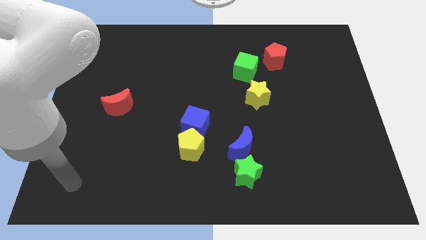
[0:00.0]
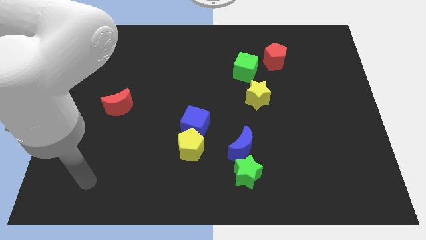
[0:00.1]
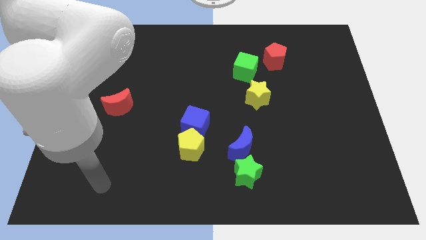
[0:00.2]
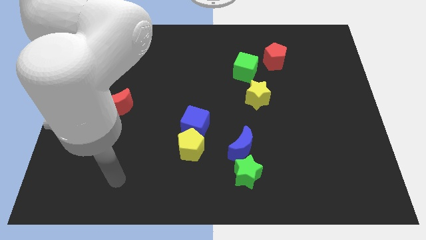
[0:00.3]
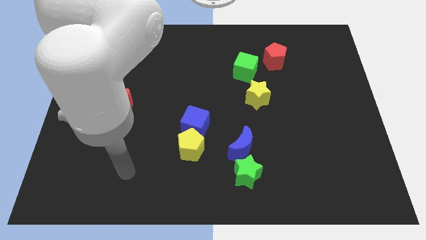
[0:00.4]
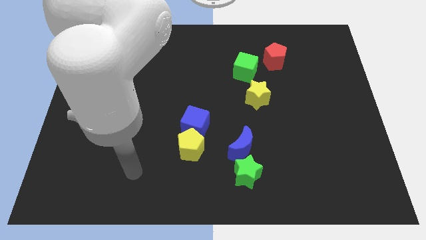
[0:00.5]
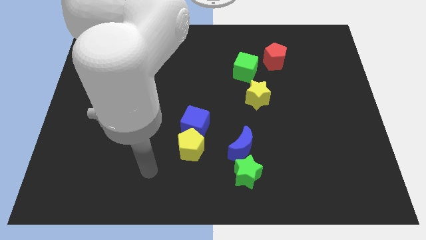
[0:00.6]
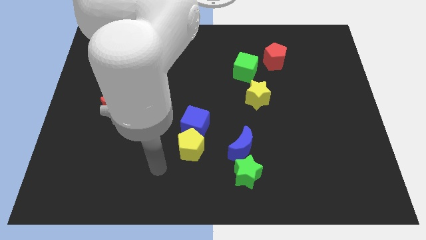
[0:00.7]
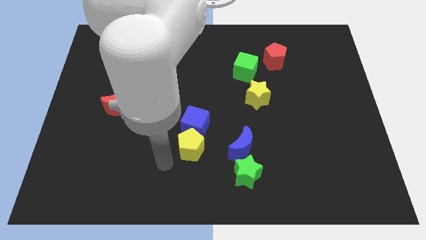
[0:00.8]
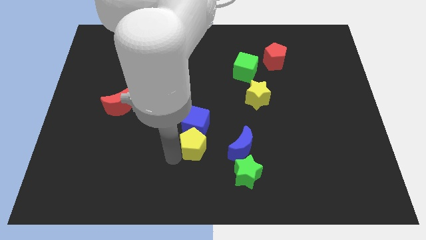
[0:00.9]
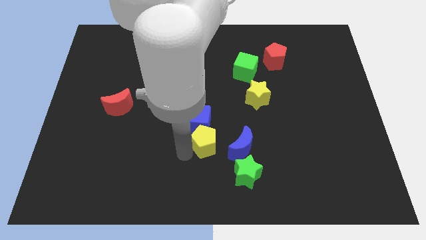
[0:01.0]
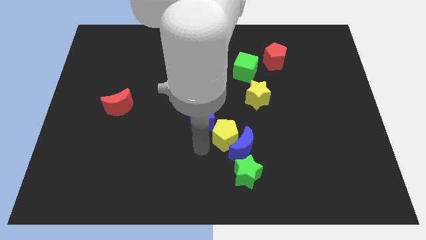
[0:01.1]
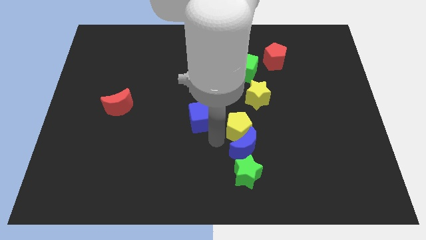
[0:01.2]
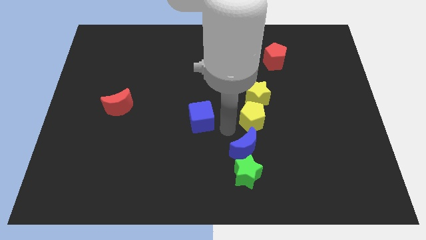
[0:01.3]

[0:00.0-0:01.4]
move the blue cube away from the yellow pentagon

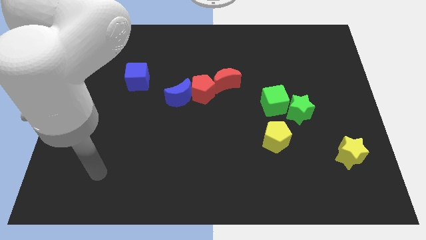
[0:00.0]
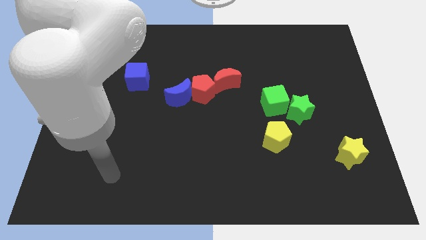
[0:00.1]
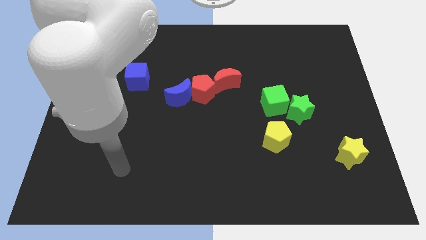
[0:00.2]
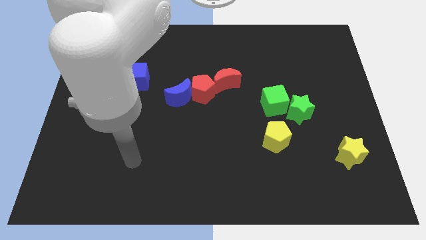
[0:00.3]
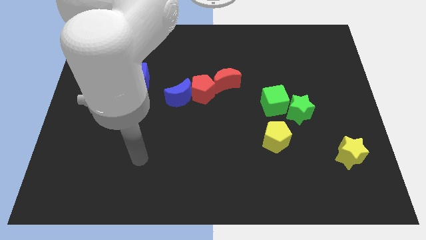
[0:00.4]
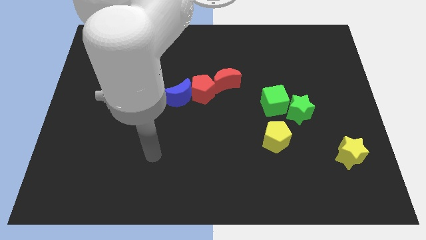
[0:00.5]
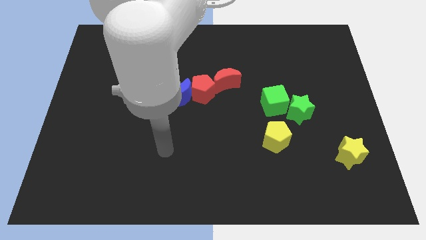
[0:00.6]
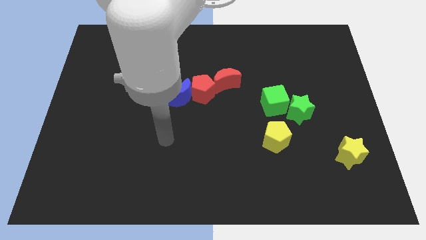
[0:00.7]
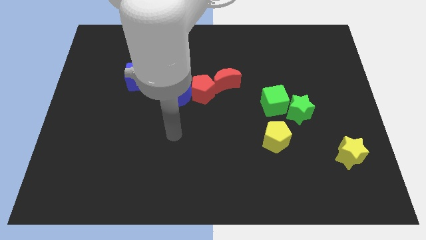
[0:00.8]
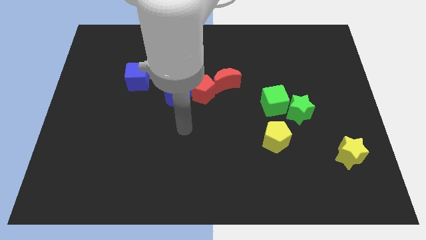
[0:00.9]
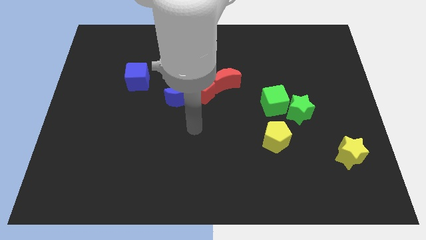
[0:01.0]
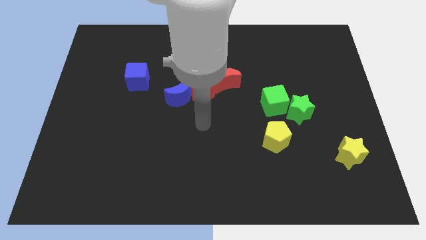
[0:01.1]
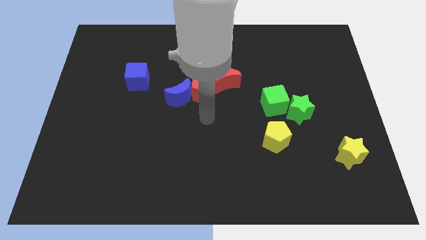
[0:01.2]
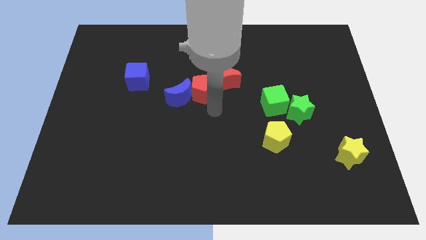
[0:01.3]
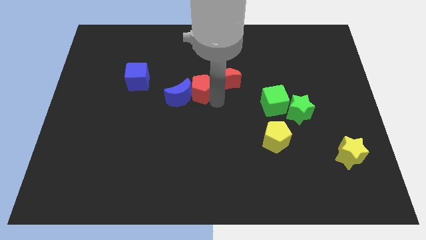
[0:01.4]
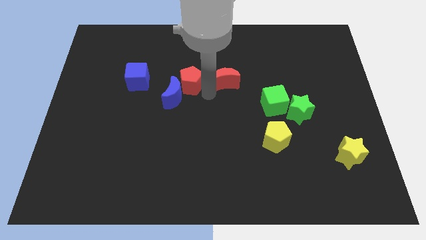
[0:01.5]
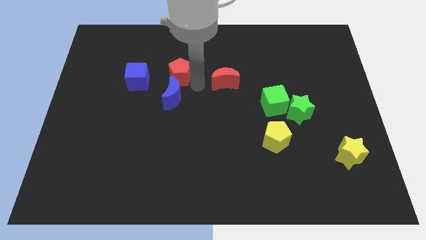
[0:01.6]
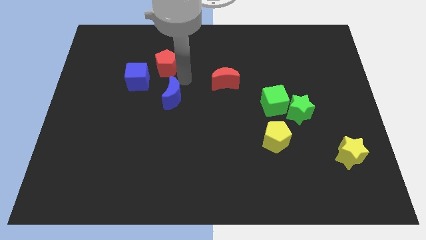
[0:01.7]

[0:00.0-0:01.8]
move the blue moon away from the red pentagon

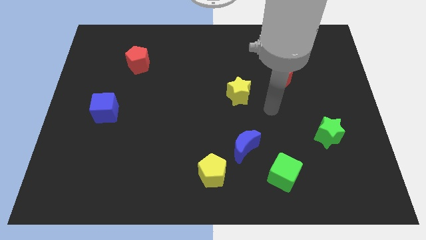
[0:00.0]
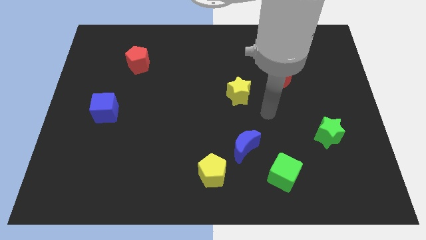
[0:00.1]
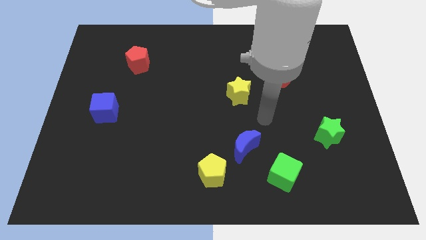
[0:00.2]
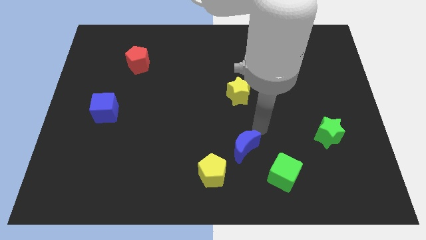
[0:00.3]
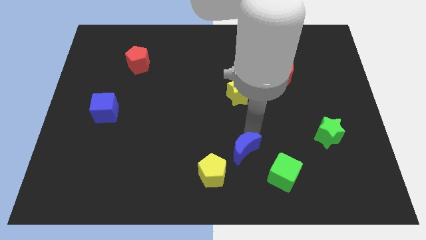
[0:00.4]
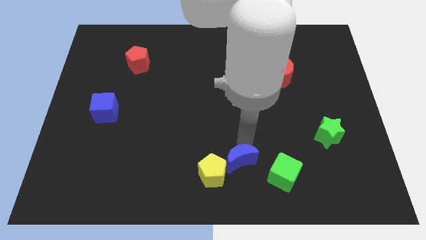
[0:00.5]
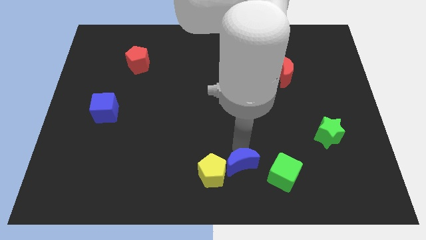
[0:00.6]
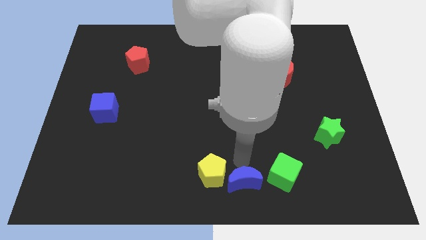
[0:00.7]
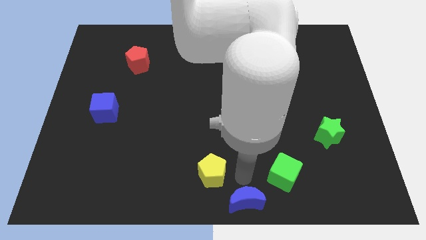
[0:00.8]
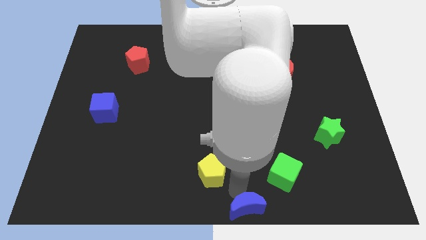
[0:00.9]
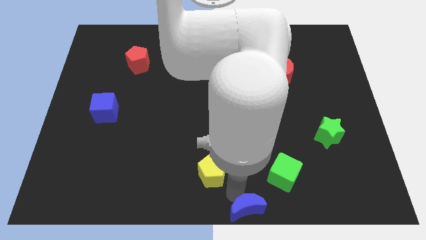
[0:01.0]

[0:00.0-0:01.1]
separate the yellow pentagon from the blue moon

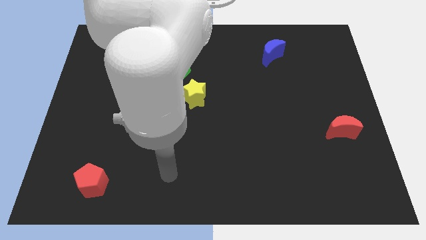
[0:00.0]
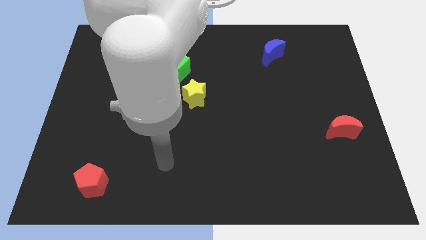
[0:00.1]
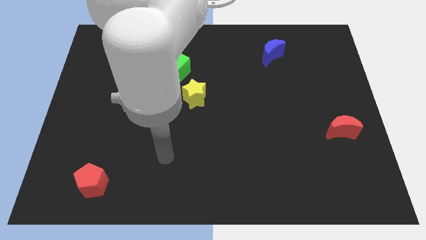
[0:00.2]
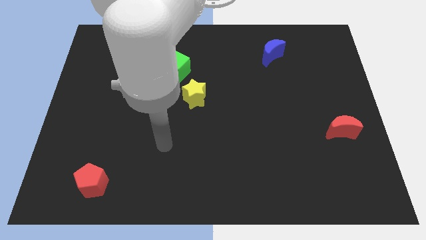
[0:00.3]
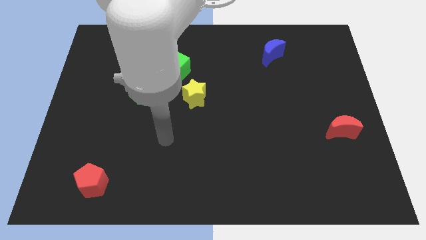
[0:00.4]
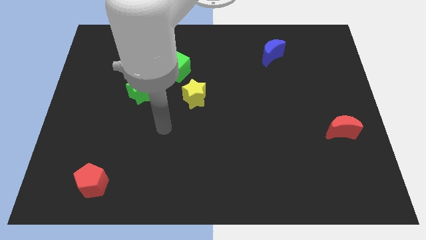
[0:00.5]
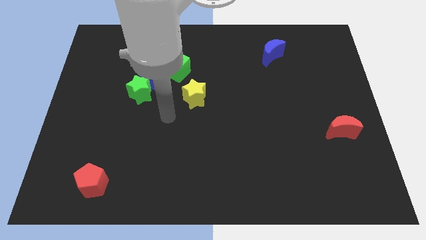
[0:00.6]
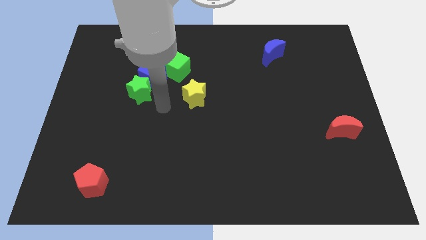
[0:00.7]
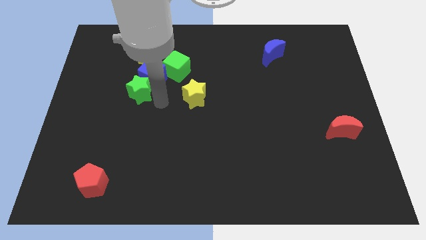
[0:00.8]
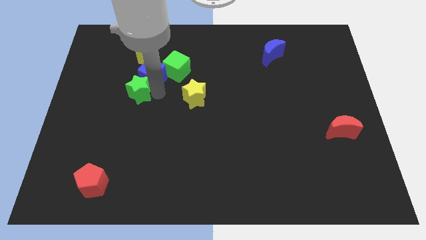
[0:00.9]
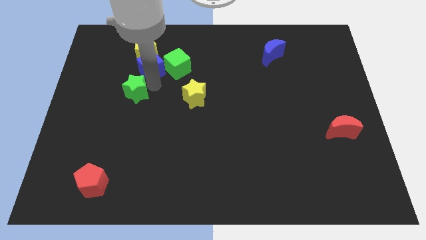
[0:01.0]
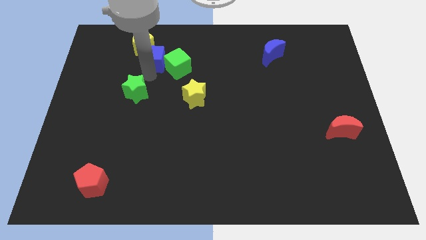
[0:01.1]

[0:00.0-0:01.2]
move the green star away from the blue cube

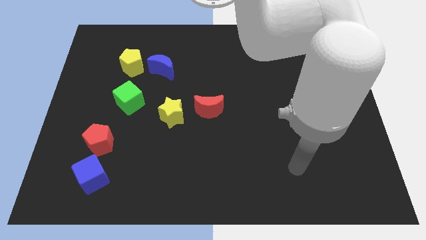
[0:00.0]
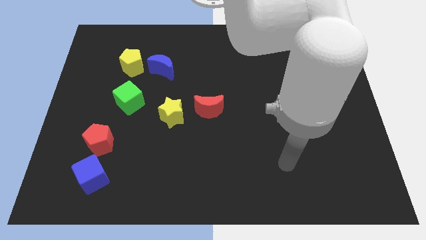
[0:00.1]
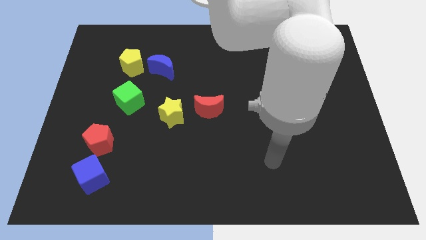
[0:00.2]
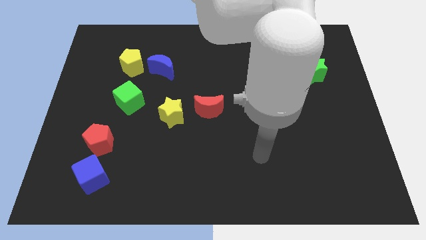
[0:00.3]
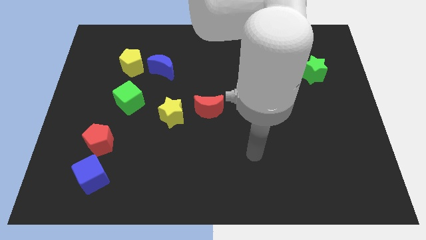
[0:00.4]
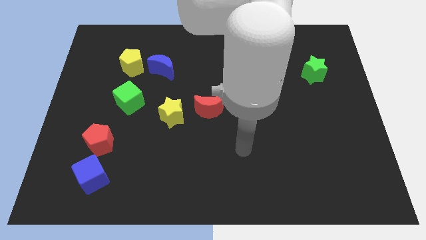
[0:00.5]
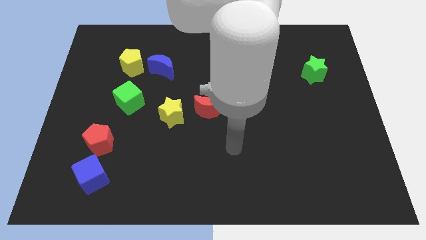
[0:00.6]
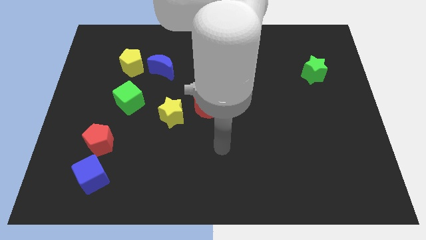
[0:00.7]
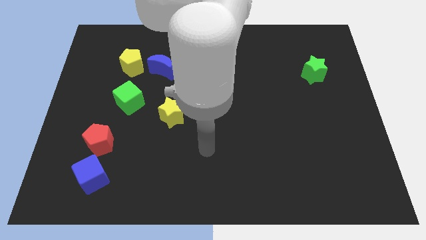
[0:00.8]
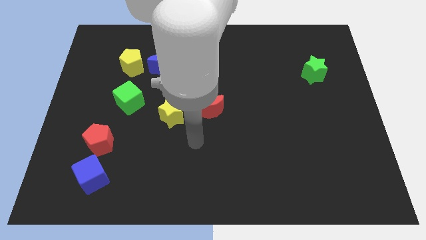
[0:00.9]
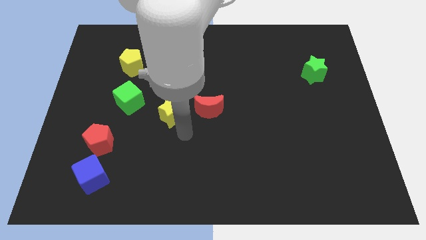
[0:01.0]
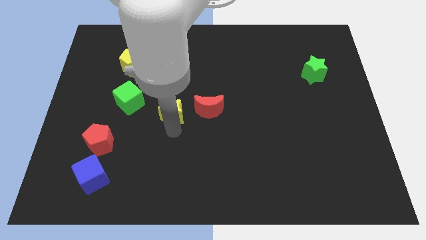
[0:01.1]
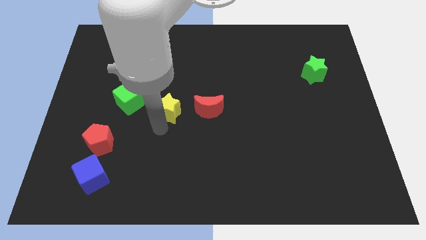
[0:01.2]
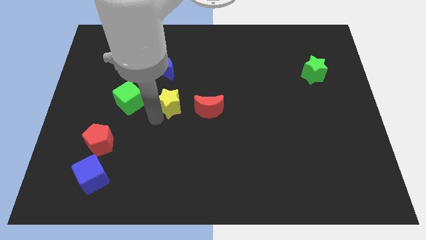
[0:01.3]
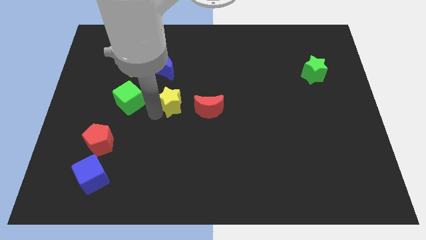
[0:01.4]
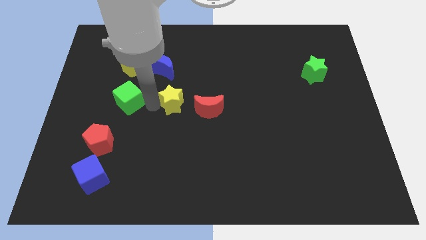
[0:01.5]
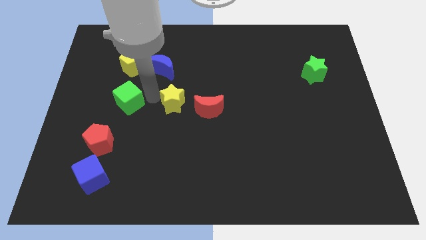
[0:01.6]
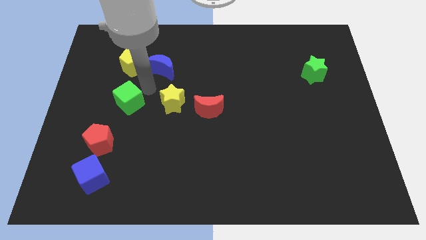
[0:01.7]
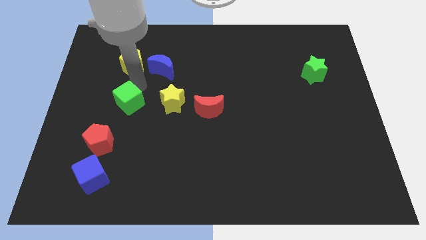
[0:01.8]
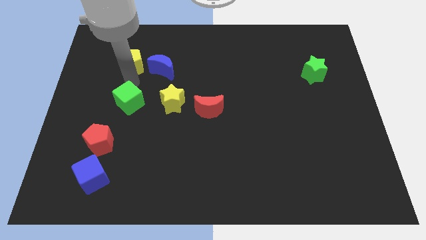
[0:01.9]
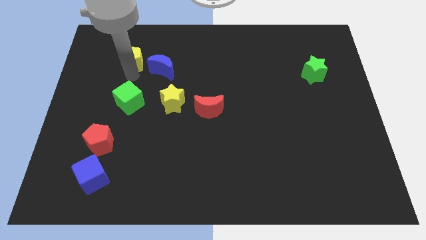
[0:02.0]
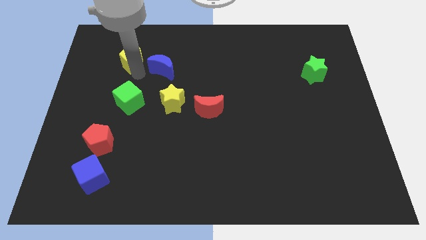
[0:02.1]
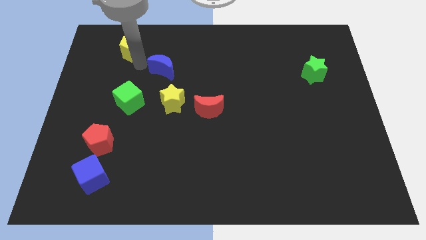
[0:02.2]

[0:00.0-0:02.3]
pull the blue moon apart from the yellow pentagon

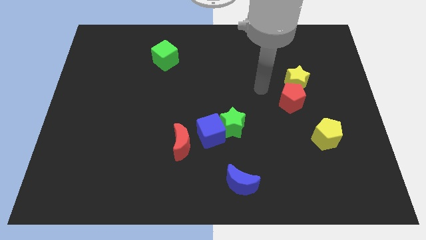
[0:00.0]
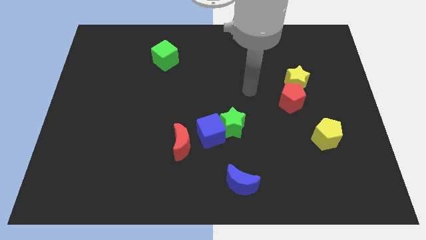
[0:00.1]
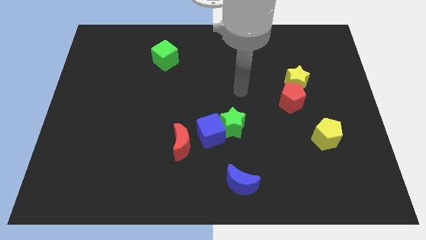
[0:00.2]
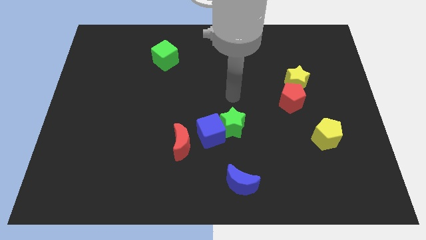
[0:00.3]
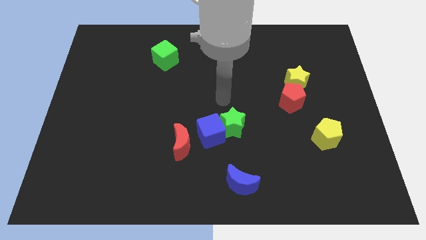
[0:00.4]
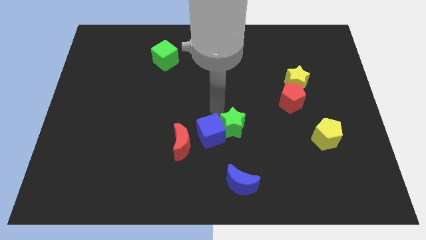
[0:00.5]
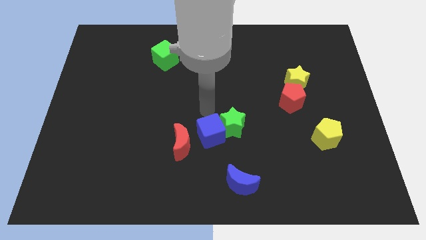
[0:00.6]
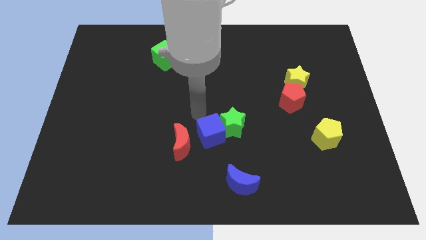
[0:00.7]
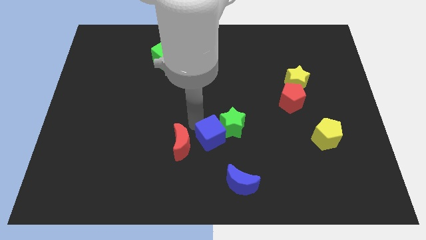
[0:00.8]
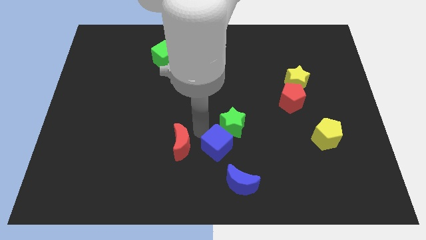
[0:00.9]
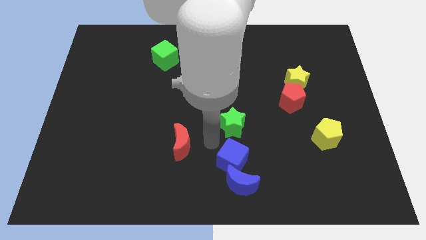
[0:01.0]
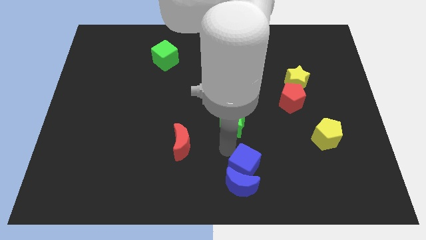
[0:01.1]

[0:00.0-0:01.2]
pull the green star apart from the blue cube

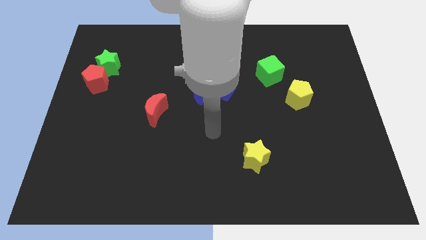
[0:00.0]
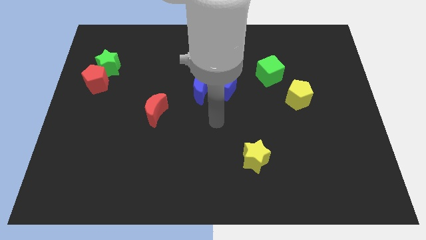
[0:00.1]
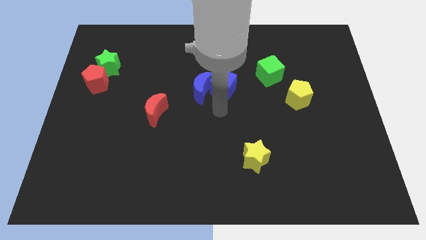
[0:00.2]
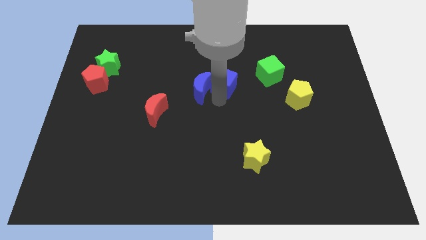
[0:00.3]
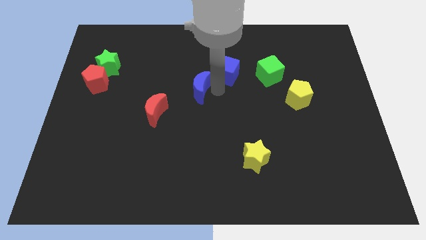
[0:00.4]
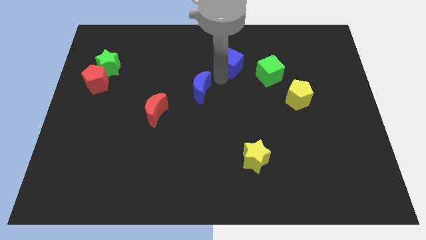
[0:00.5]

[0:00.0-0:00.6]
separate the blue moon from the blue cube
